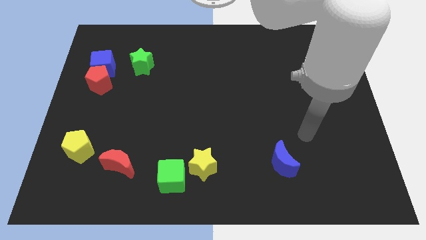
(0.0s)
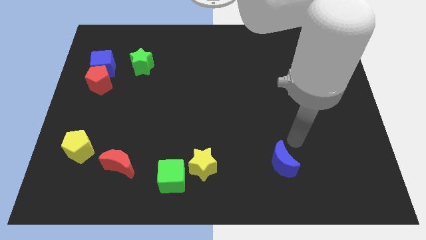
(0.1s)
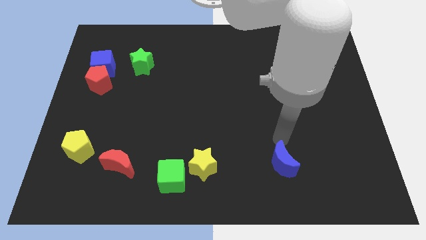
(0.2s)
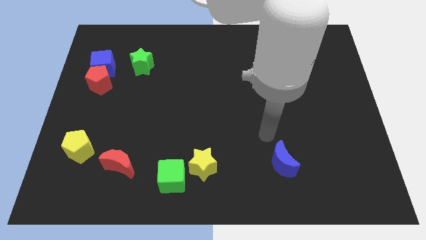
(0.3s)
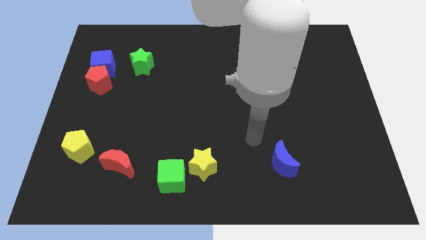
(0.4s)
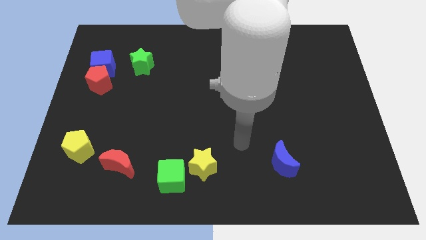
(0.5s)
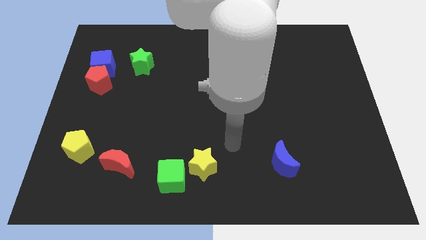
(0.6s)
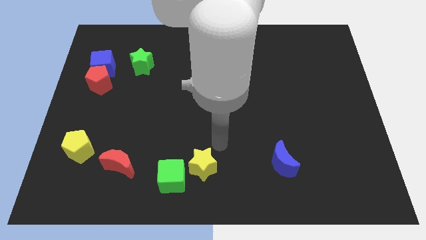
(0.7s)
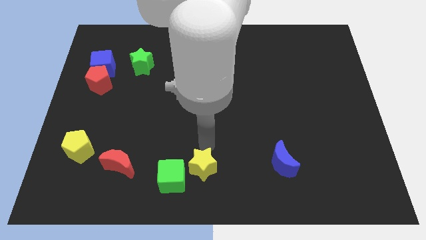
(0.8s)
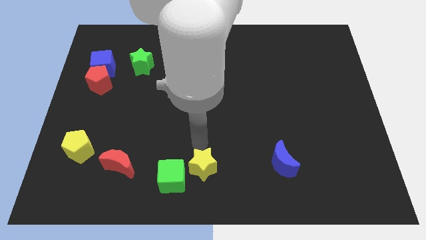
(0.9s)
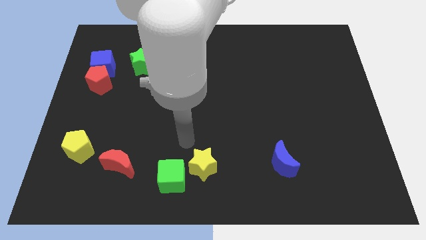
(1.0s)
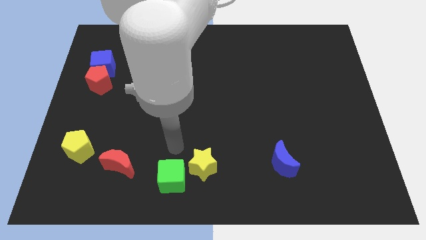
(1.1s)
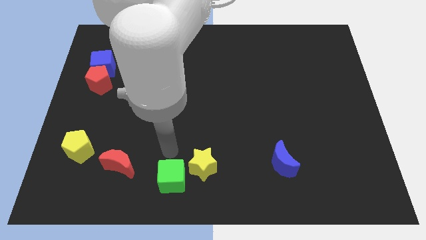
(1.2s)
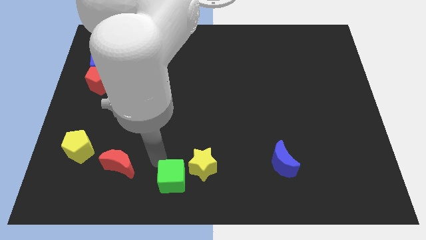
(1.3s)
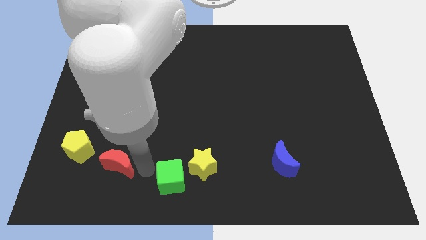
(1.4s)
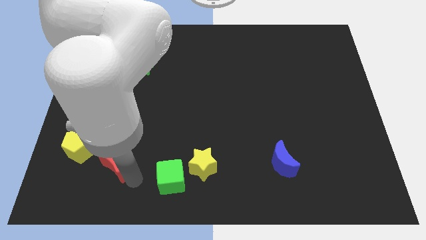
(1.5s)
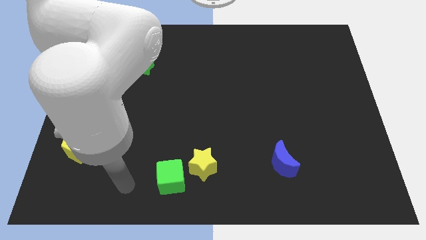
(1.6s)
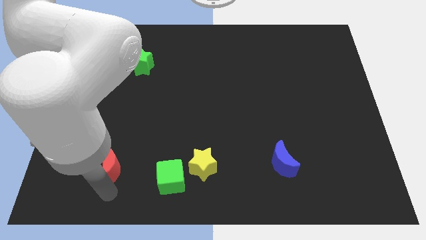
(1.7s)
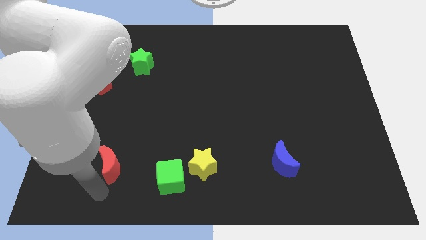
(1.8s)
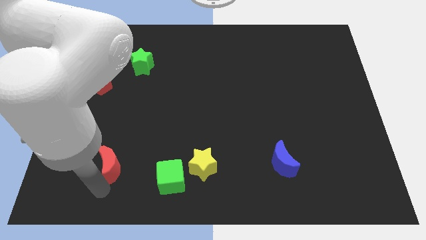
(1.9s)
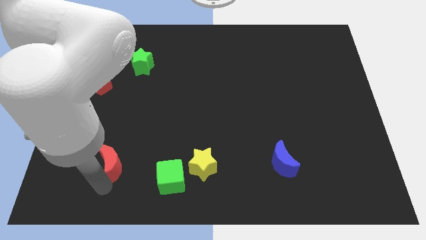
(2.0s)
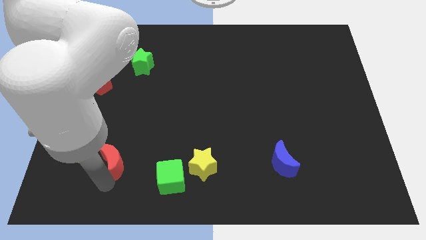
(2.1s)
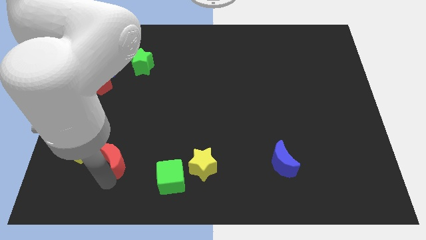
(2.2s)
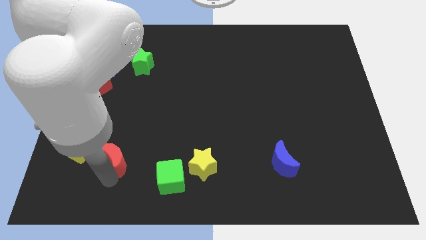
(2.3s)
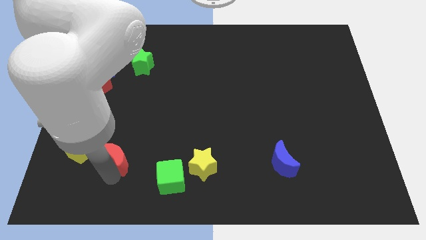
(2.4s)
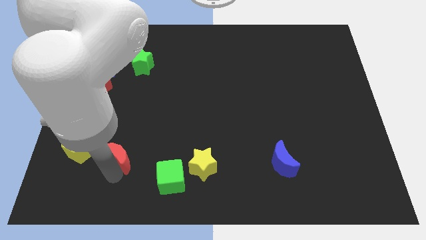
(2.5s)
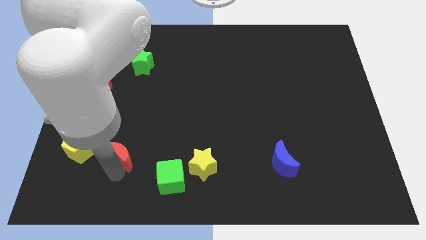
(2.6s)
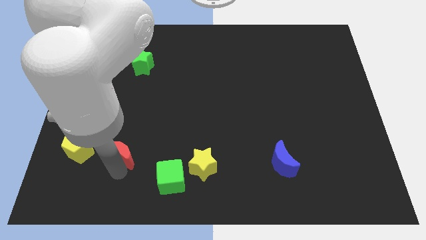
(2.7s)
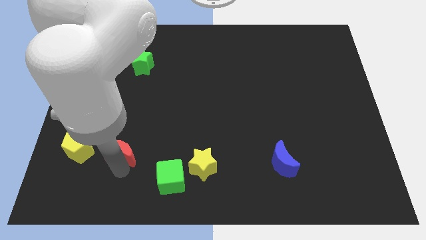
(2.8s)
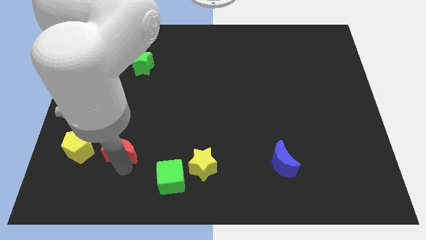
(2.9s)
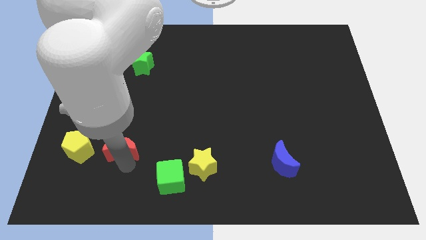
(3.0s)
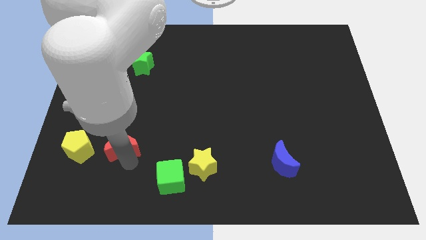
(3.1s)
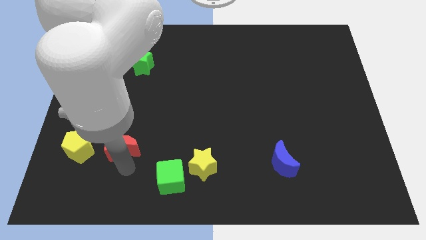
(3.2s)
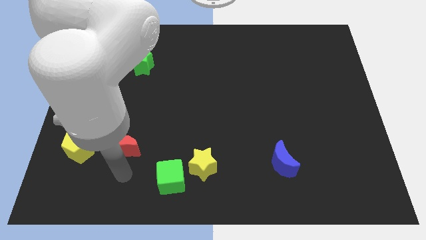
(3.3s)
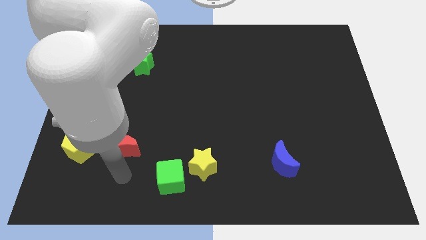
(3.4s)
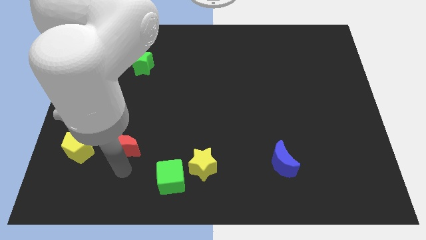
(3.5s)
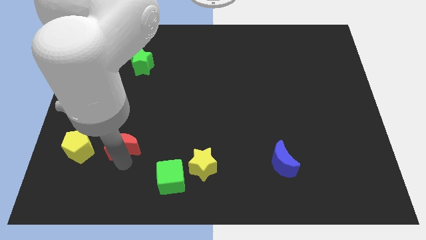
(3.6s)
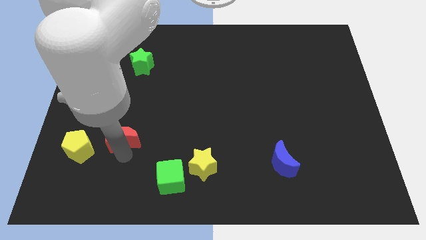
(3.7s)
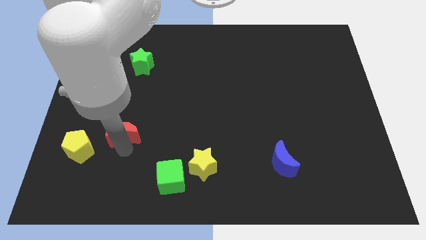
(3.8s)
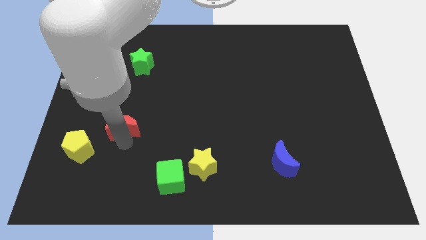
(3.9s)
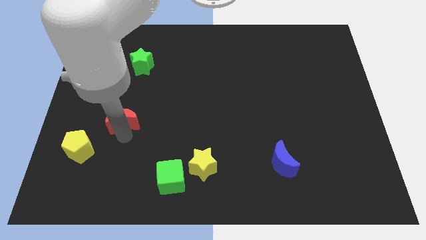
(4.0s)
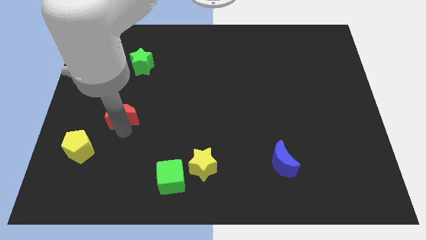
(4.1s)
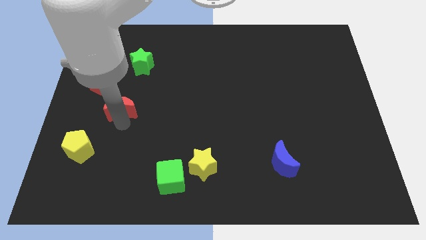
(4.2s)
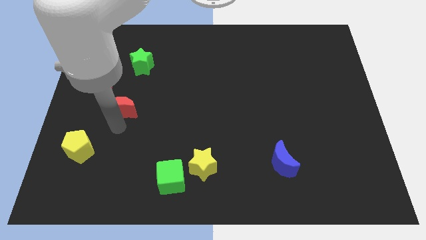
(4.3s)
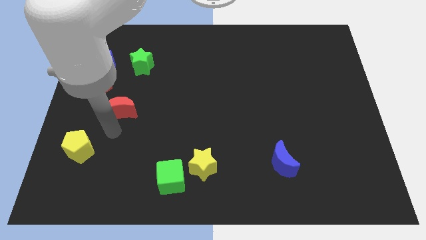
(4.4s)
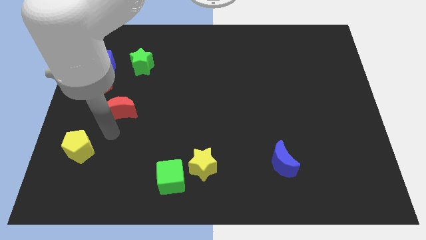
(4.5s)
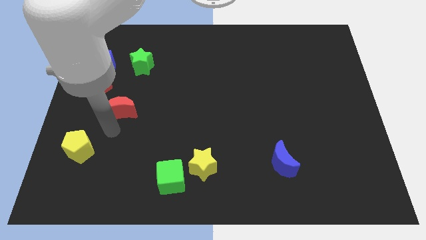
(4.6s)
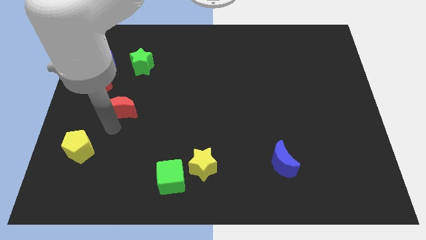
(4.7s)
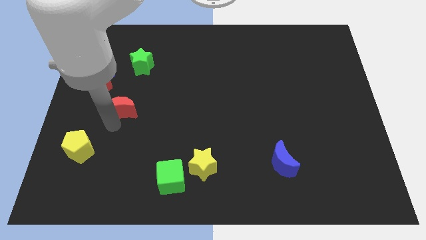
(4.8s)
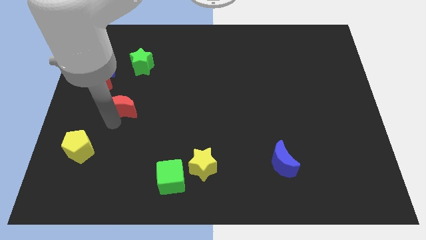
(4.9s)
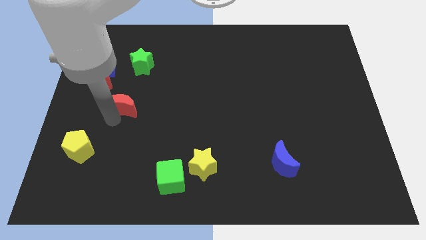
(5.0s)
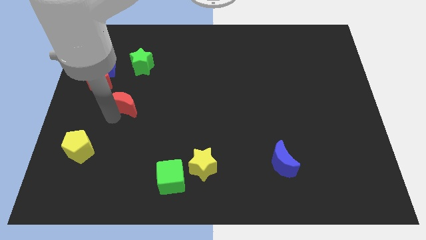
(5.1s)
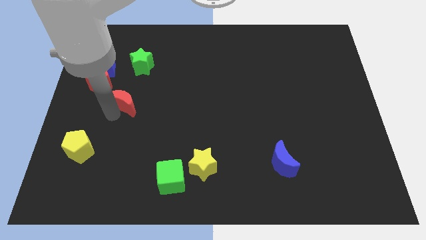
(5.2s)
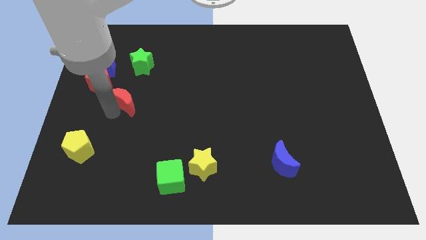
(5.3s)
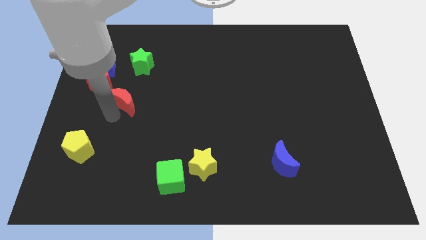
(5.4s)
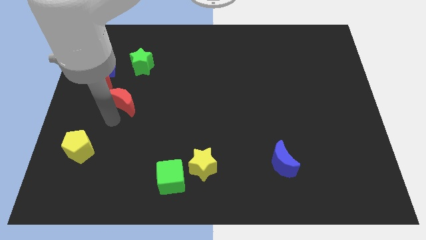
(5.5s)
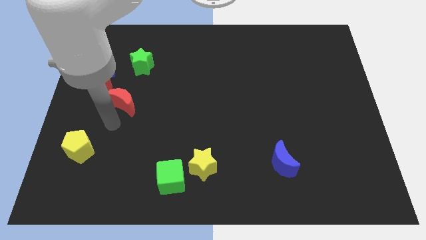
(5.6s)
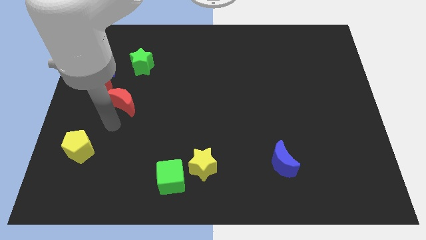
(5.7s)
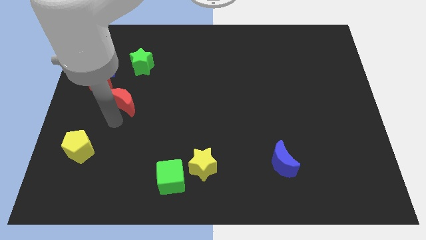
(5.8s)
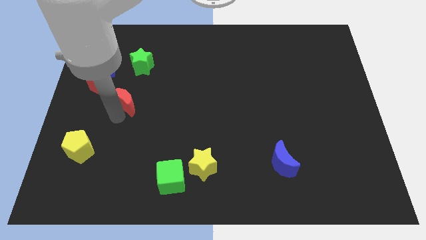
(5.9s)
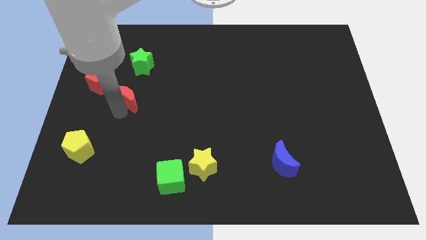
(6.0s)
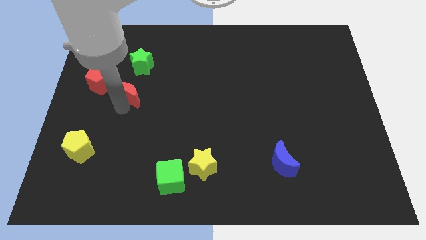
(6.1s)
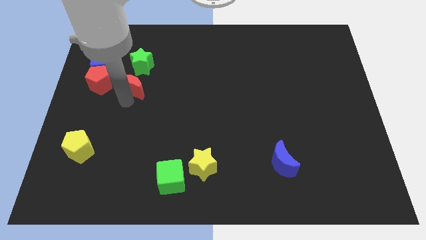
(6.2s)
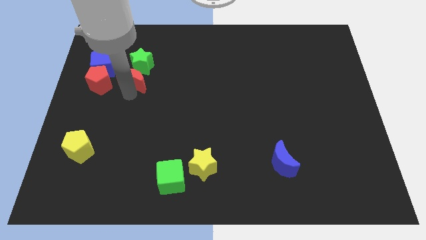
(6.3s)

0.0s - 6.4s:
push the red moon next to the green star
